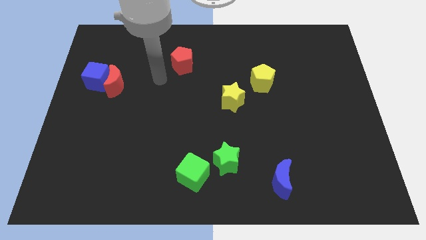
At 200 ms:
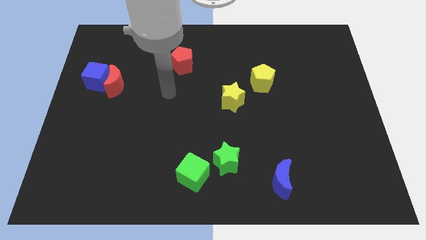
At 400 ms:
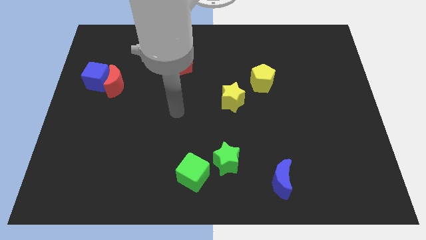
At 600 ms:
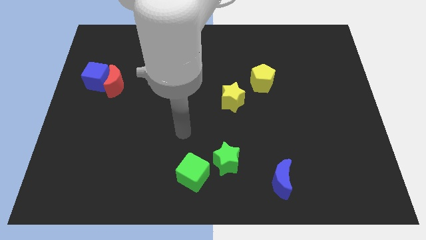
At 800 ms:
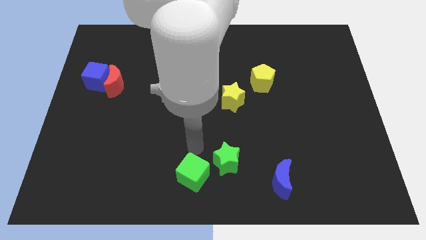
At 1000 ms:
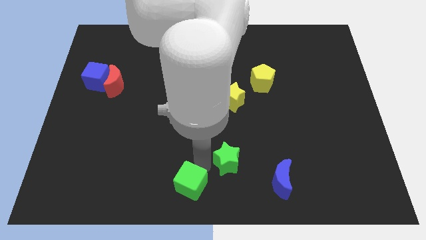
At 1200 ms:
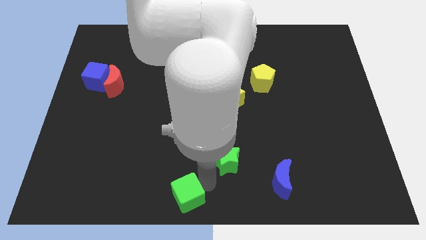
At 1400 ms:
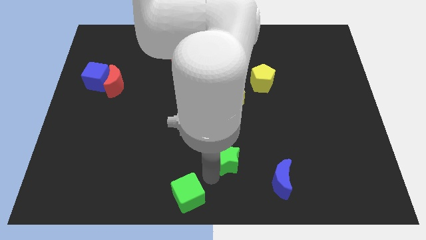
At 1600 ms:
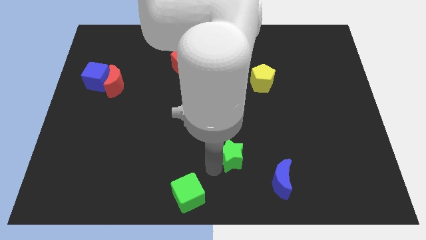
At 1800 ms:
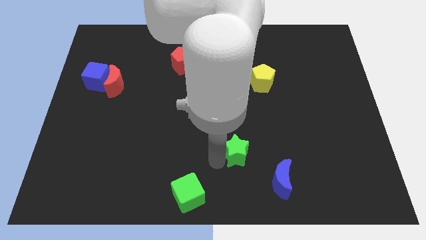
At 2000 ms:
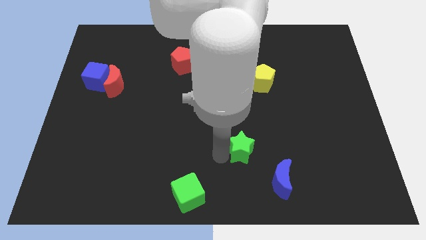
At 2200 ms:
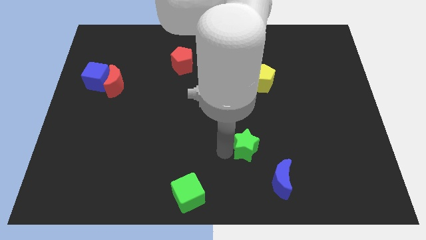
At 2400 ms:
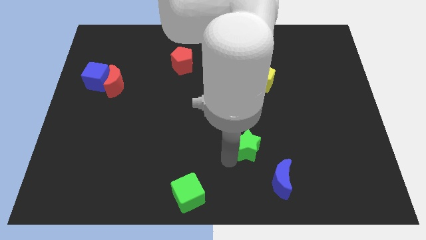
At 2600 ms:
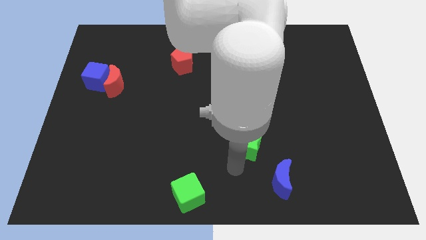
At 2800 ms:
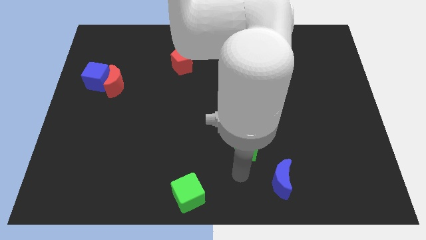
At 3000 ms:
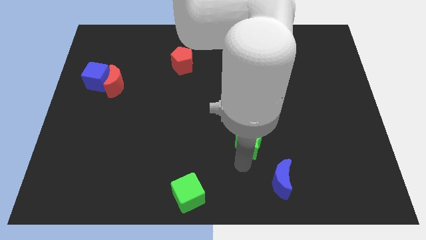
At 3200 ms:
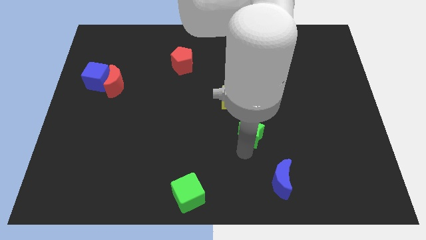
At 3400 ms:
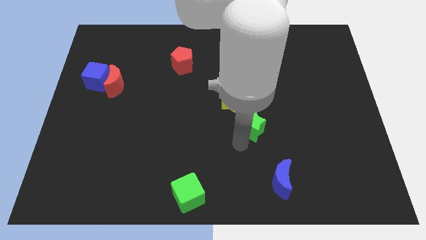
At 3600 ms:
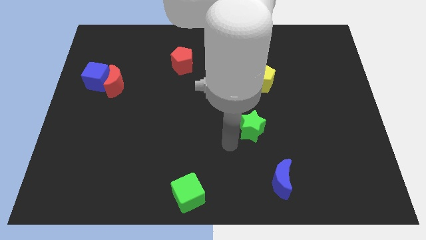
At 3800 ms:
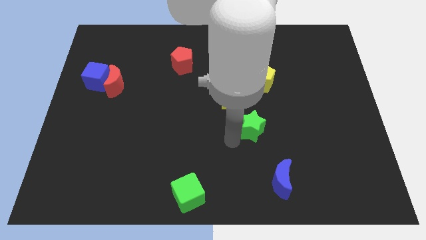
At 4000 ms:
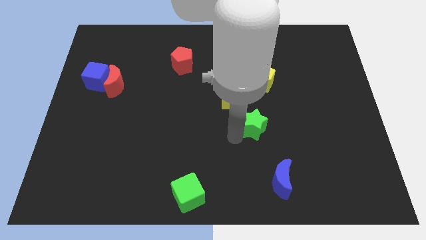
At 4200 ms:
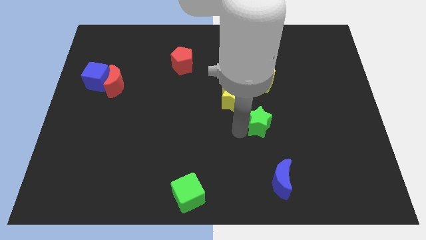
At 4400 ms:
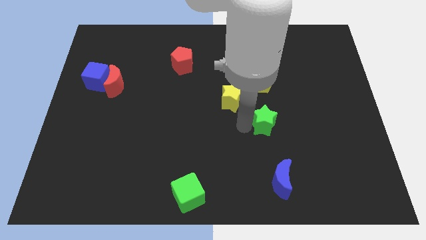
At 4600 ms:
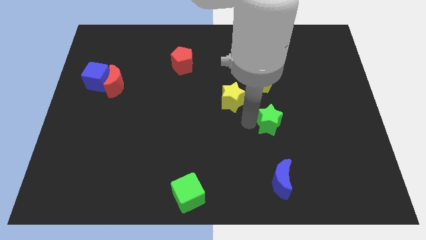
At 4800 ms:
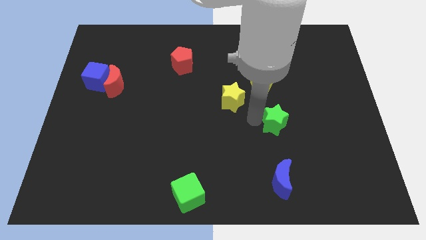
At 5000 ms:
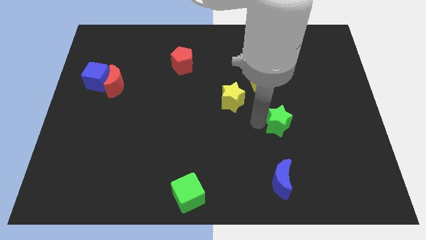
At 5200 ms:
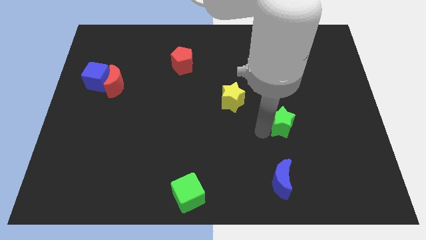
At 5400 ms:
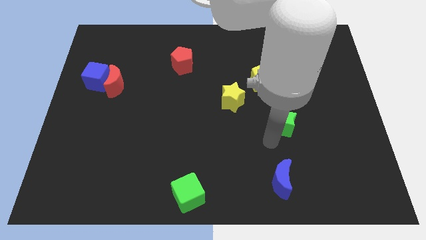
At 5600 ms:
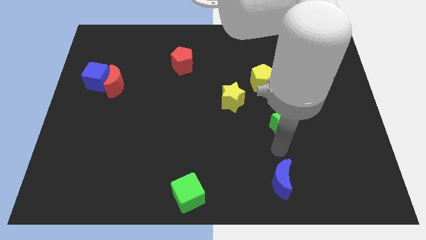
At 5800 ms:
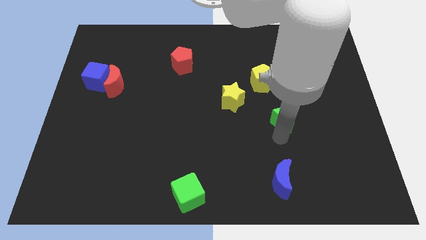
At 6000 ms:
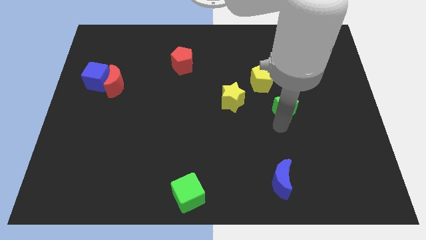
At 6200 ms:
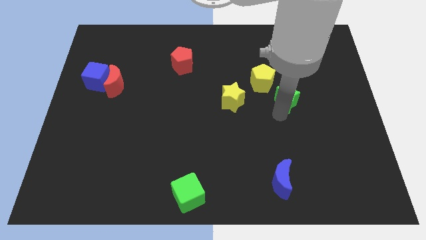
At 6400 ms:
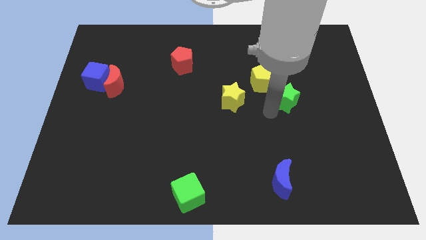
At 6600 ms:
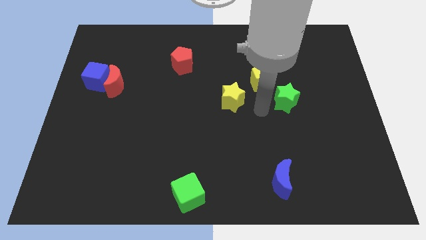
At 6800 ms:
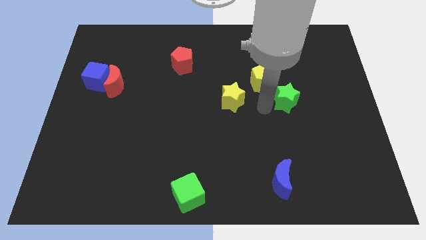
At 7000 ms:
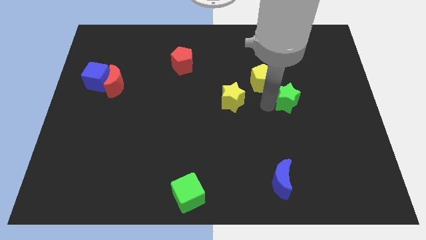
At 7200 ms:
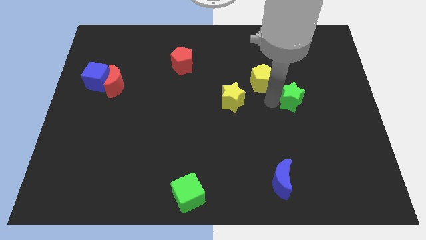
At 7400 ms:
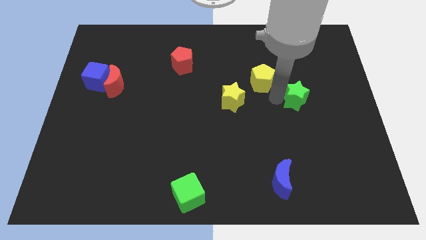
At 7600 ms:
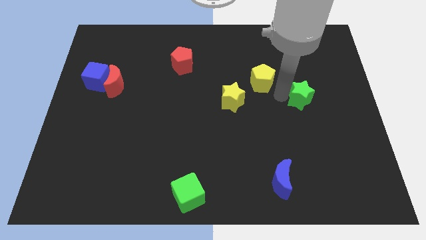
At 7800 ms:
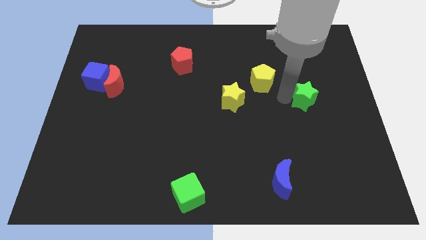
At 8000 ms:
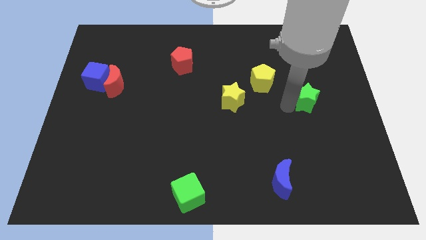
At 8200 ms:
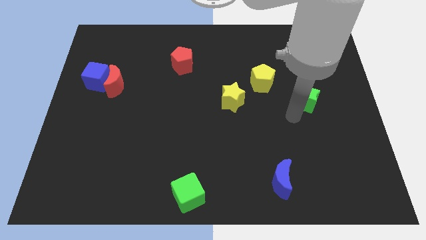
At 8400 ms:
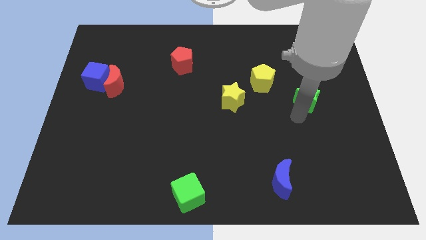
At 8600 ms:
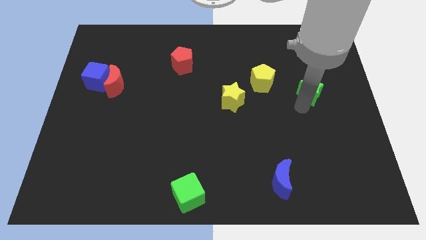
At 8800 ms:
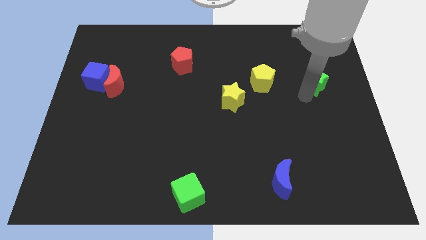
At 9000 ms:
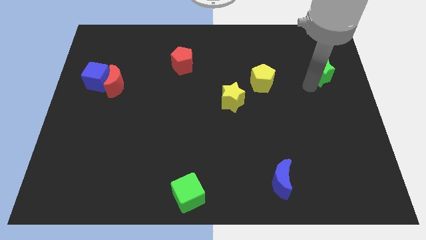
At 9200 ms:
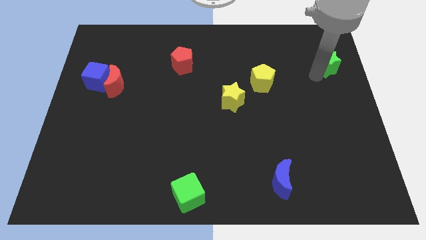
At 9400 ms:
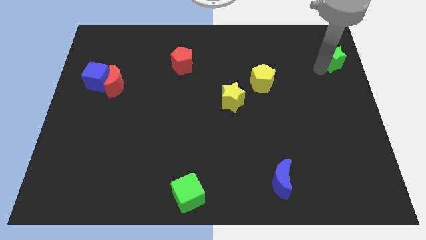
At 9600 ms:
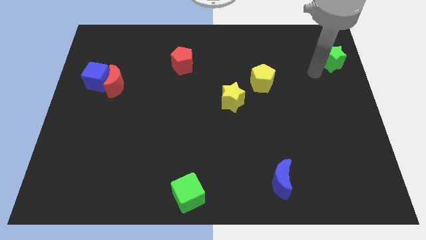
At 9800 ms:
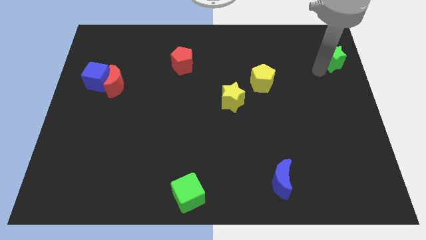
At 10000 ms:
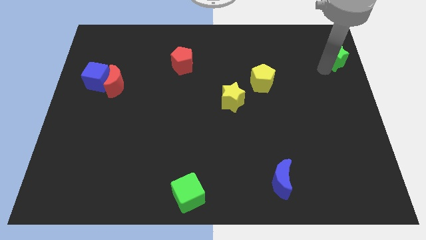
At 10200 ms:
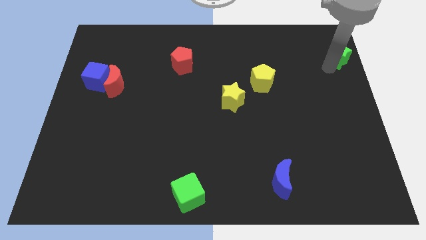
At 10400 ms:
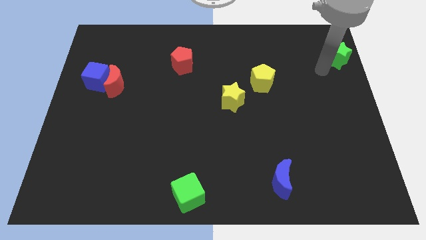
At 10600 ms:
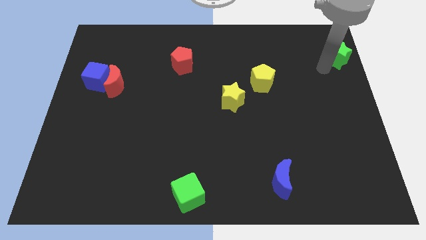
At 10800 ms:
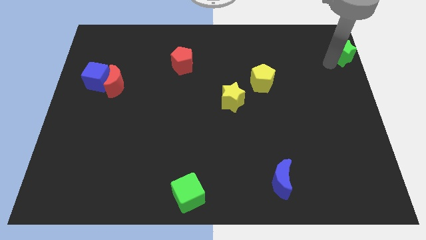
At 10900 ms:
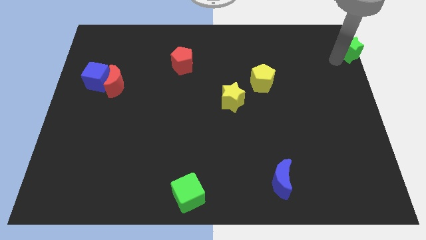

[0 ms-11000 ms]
put the green star to the upper right corner
